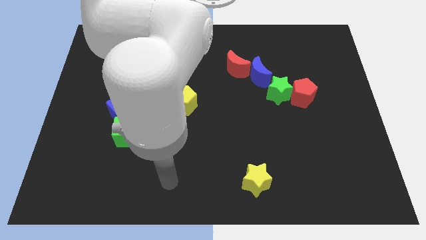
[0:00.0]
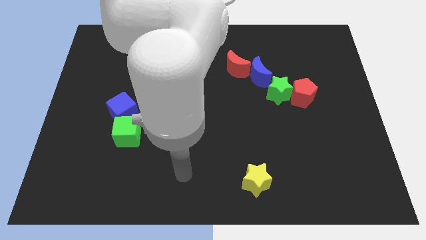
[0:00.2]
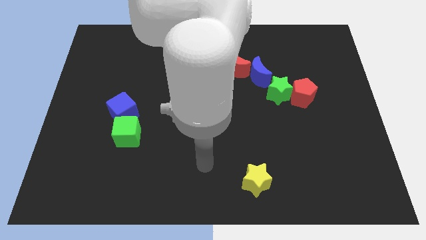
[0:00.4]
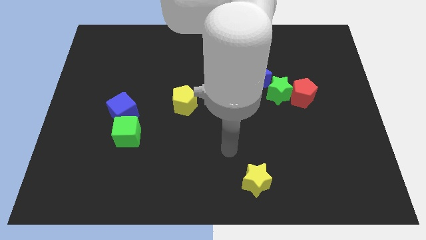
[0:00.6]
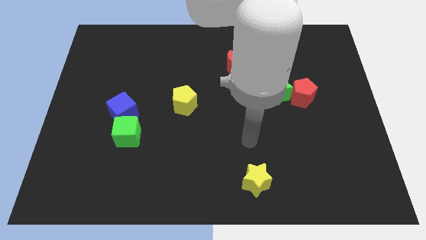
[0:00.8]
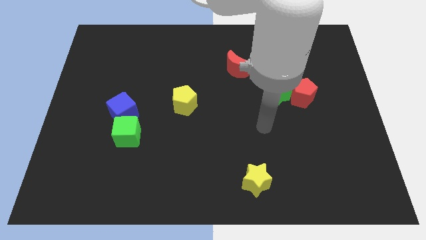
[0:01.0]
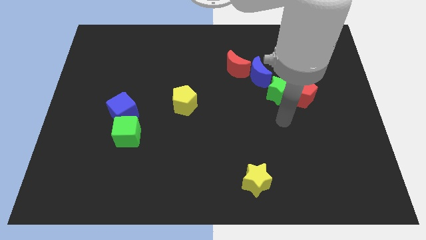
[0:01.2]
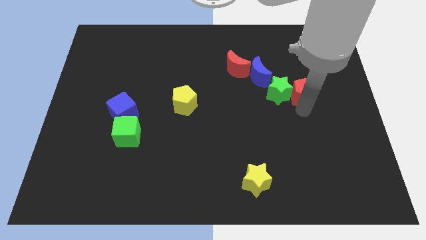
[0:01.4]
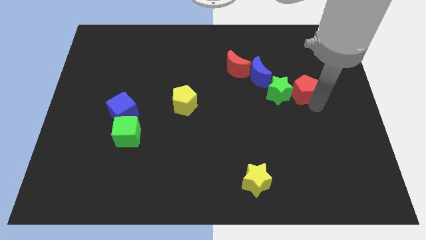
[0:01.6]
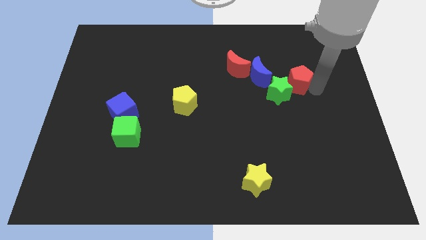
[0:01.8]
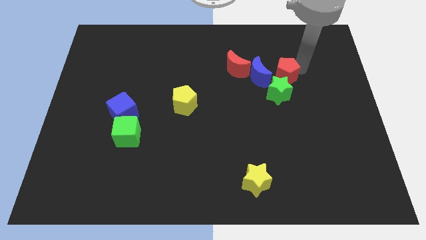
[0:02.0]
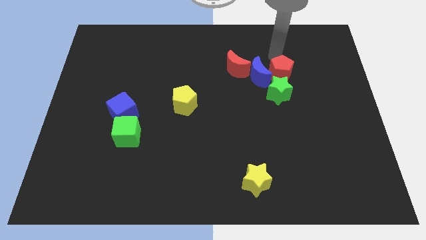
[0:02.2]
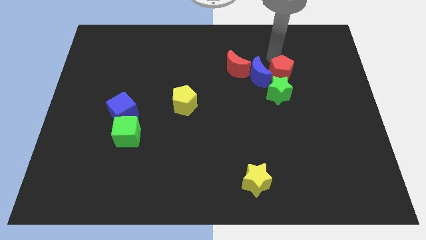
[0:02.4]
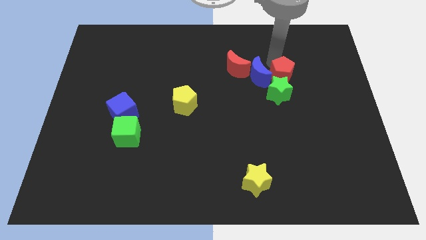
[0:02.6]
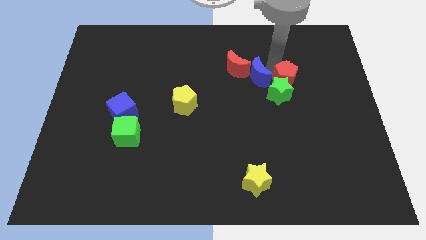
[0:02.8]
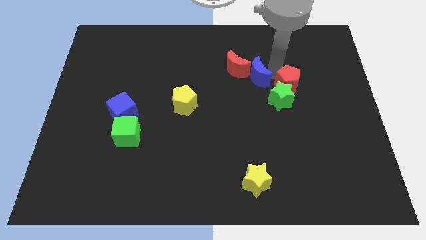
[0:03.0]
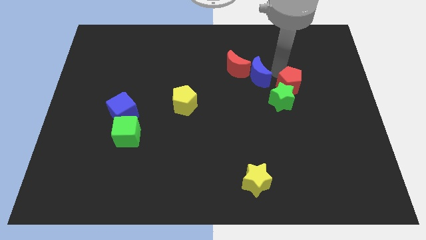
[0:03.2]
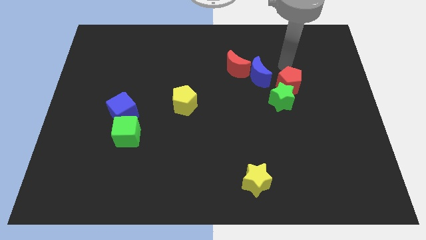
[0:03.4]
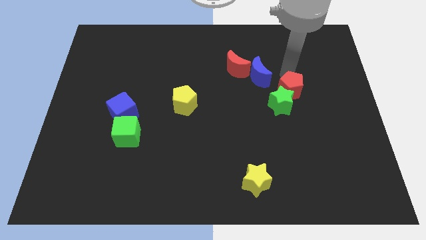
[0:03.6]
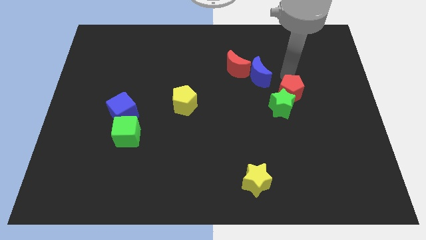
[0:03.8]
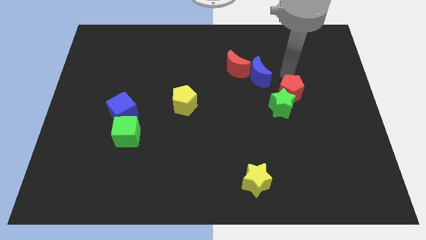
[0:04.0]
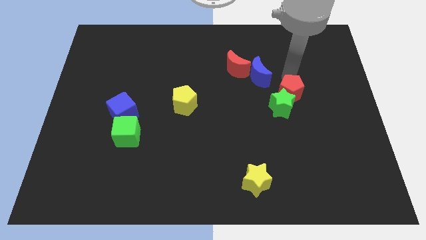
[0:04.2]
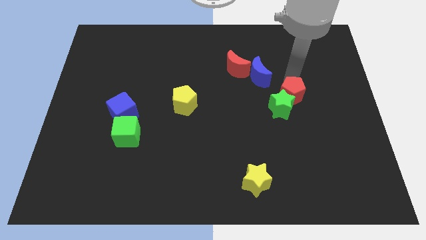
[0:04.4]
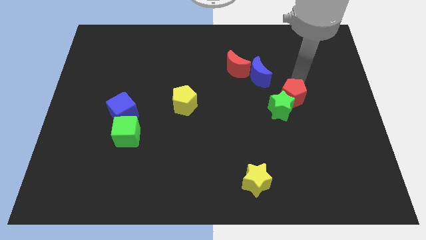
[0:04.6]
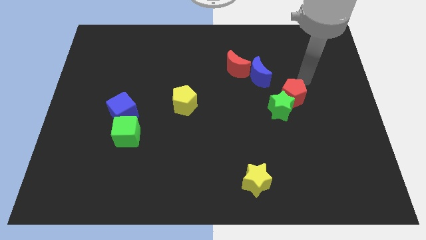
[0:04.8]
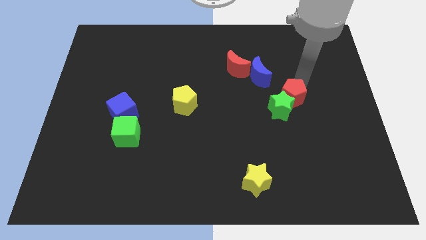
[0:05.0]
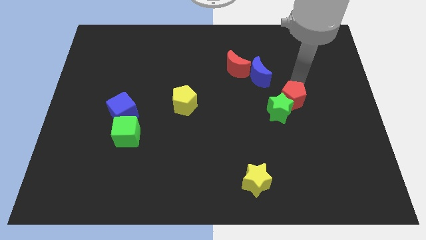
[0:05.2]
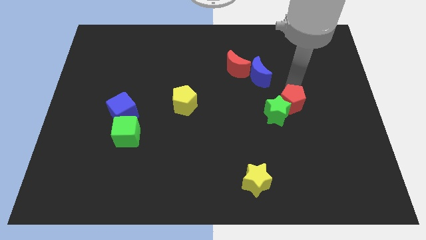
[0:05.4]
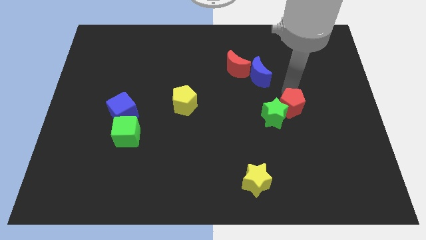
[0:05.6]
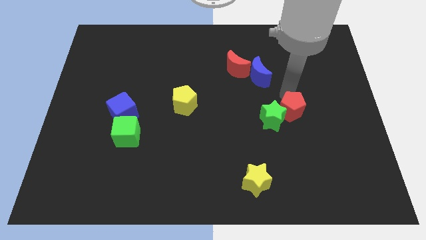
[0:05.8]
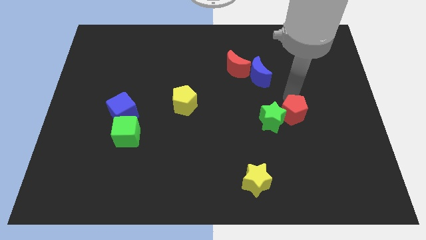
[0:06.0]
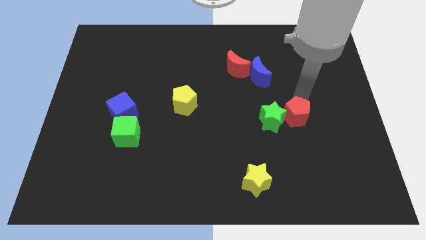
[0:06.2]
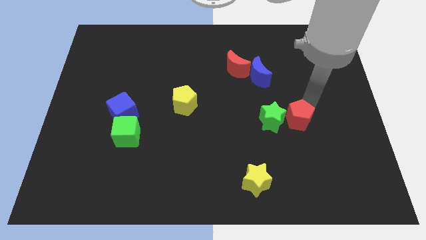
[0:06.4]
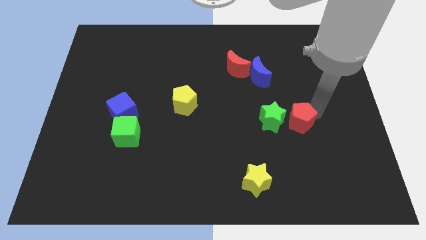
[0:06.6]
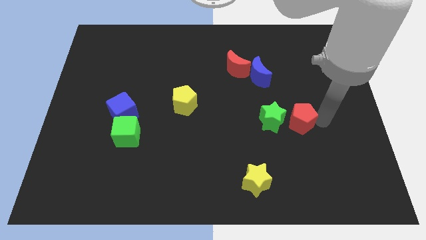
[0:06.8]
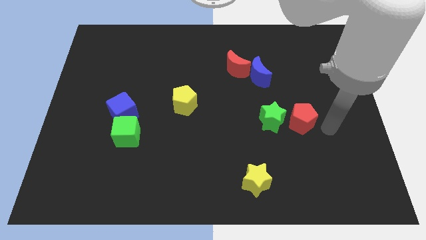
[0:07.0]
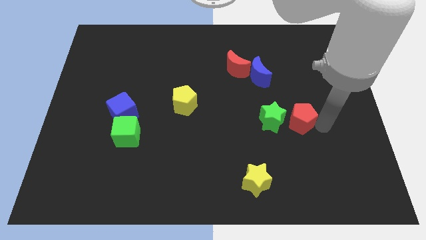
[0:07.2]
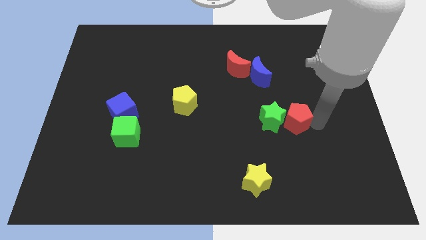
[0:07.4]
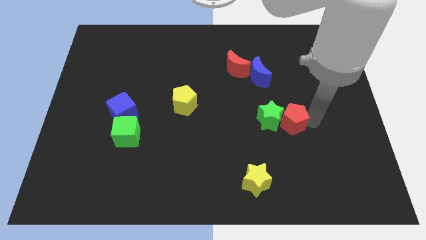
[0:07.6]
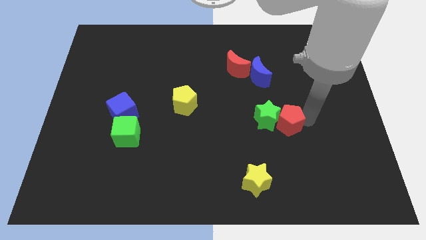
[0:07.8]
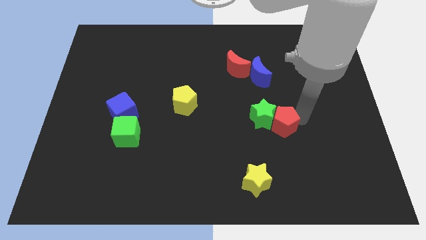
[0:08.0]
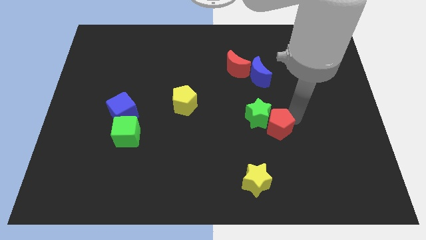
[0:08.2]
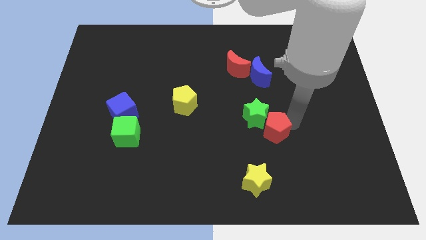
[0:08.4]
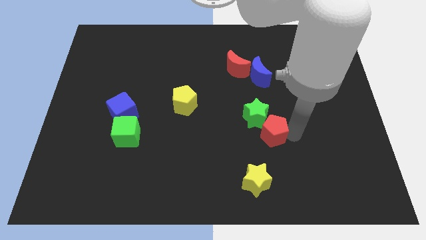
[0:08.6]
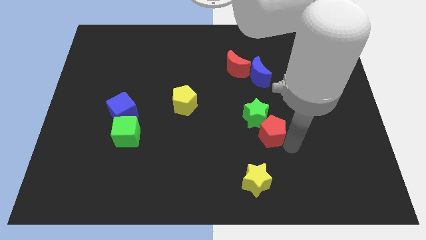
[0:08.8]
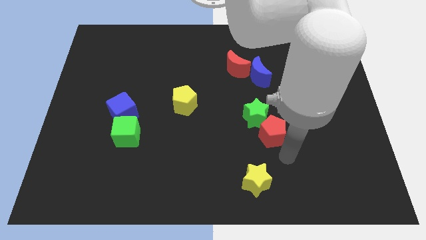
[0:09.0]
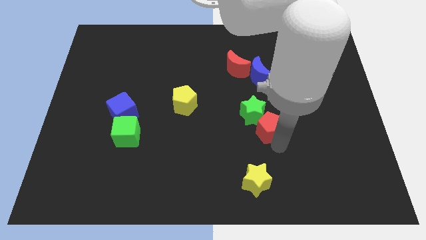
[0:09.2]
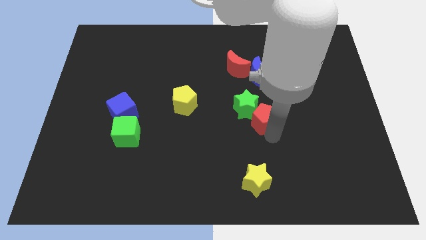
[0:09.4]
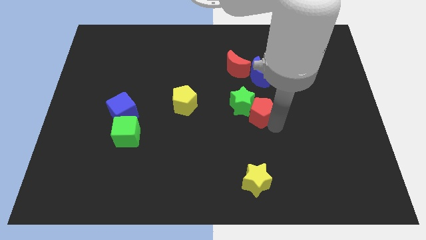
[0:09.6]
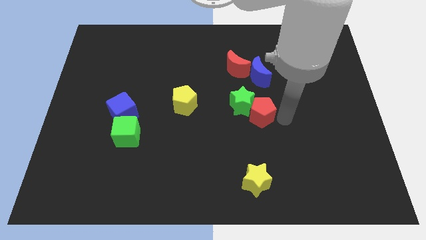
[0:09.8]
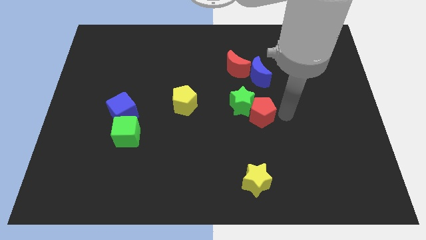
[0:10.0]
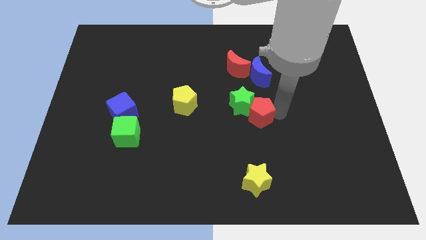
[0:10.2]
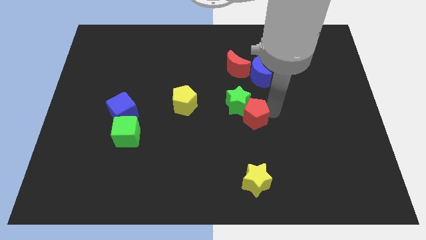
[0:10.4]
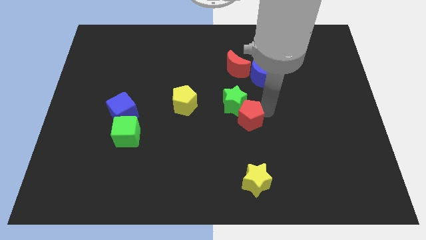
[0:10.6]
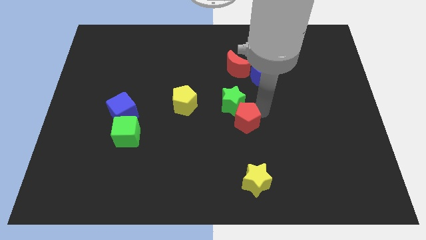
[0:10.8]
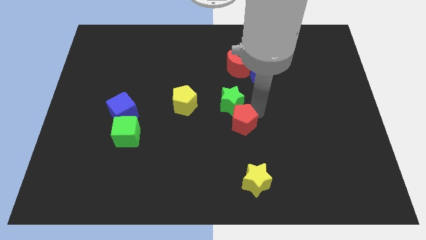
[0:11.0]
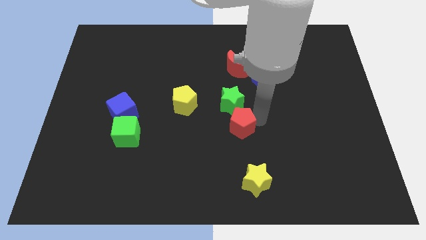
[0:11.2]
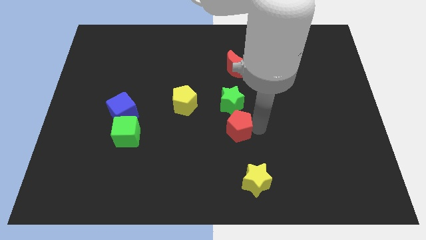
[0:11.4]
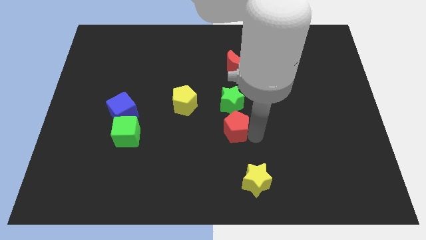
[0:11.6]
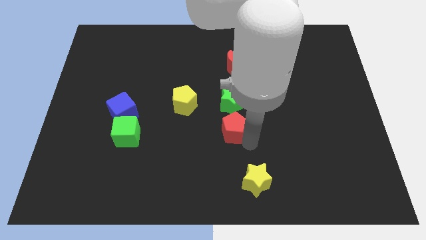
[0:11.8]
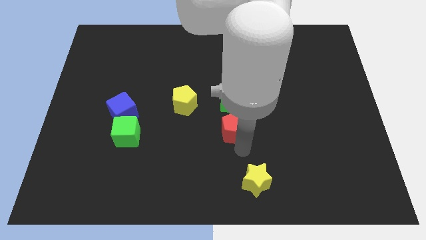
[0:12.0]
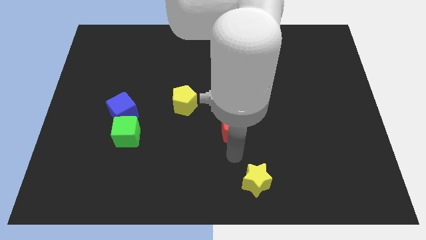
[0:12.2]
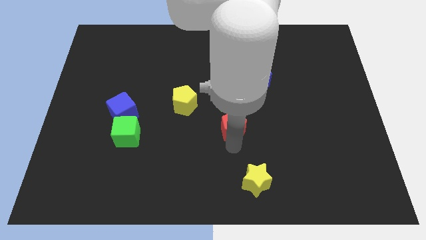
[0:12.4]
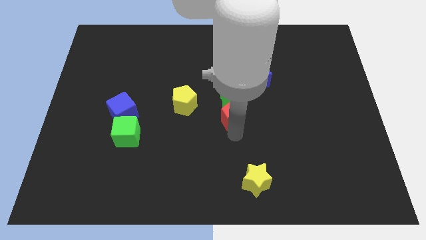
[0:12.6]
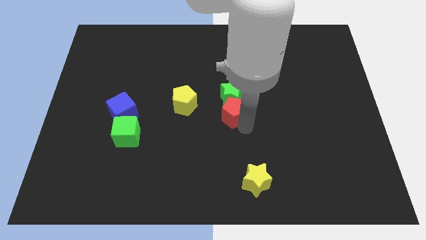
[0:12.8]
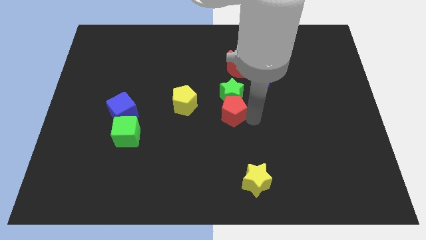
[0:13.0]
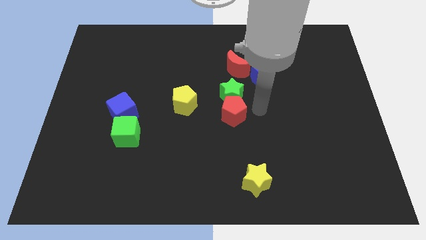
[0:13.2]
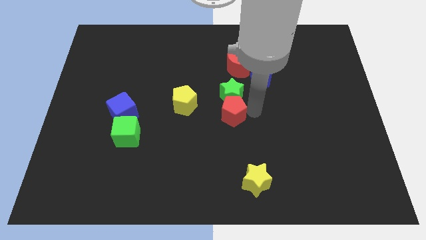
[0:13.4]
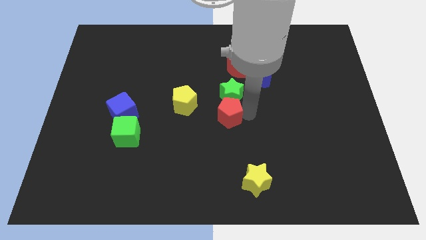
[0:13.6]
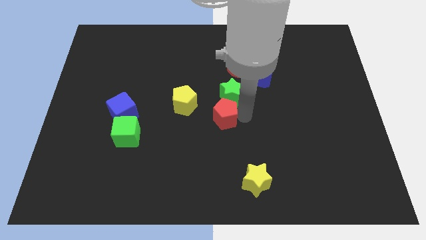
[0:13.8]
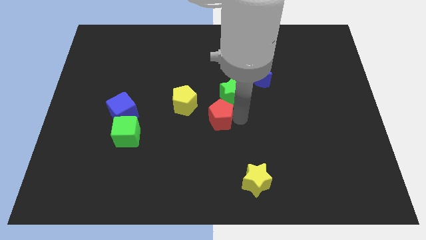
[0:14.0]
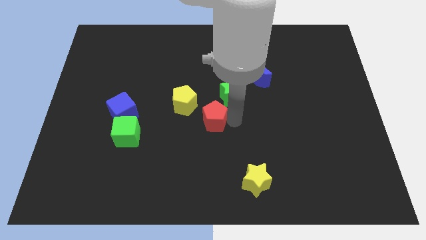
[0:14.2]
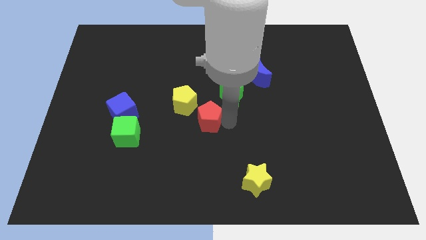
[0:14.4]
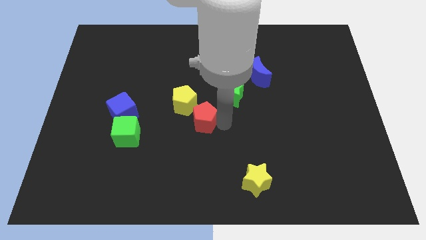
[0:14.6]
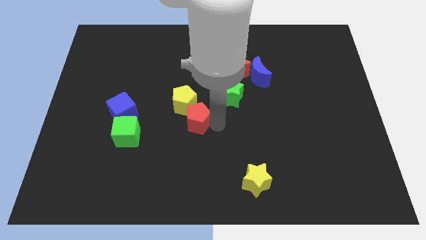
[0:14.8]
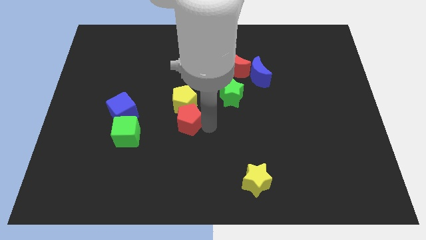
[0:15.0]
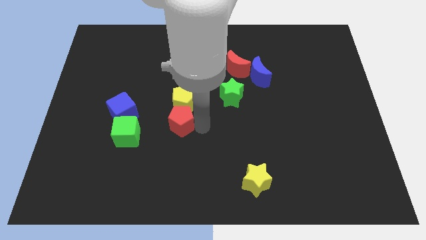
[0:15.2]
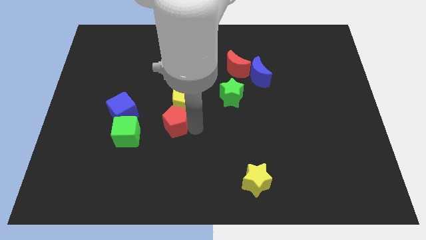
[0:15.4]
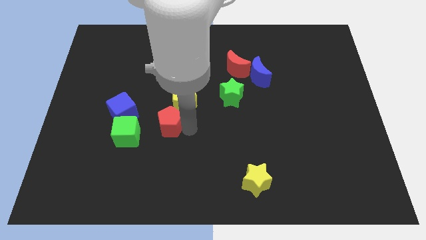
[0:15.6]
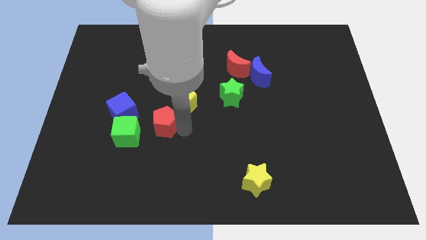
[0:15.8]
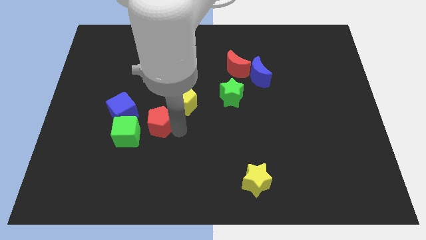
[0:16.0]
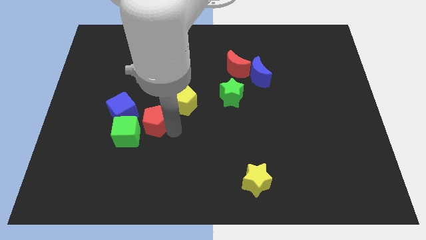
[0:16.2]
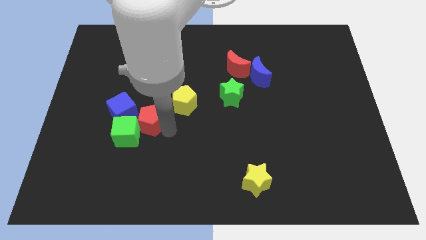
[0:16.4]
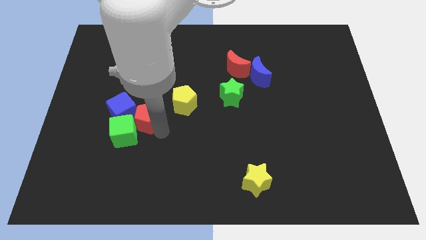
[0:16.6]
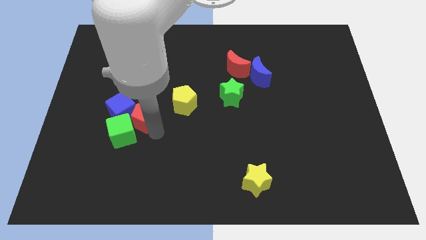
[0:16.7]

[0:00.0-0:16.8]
move the red pentagon to the top of the green cube
